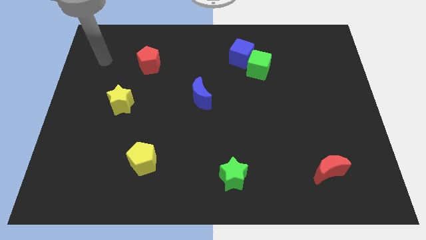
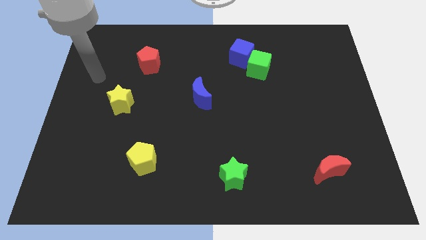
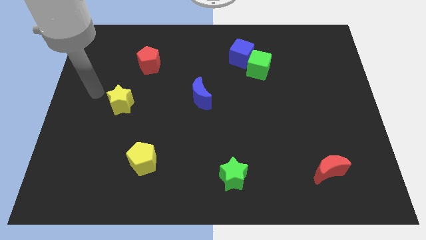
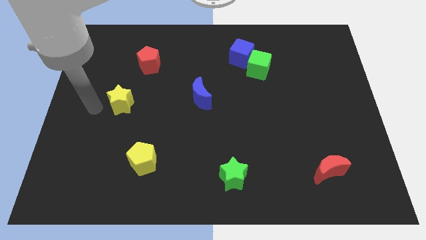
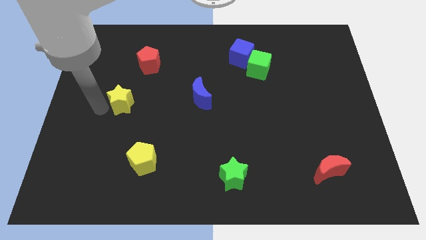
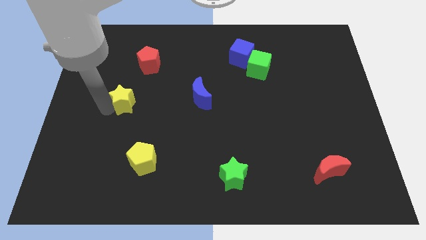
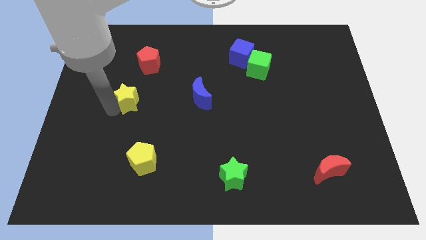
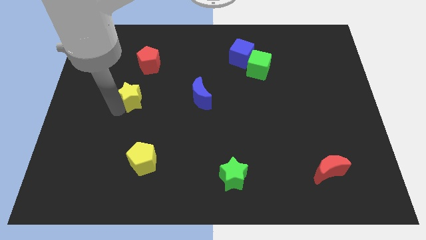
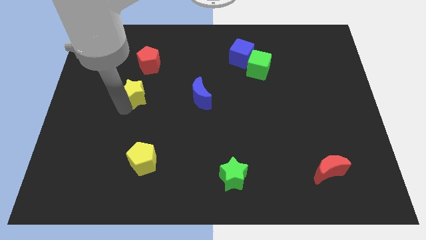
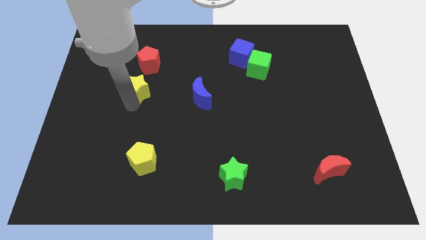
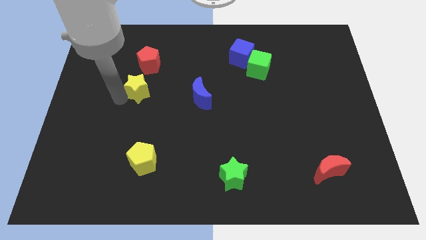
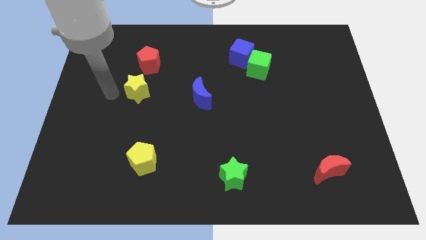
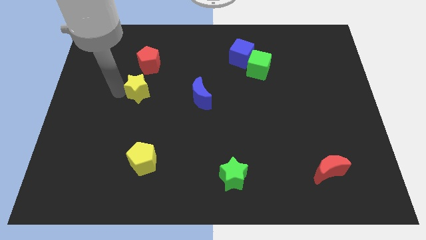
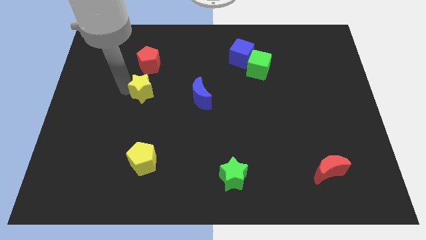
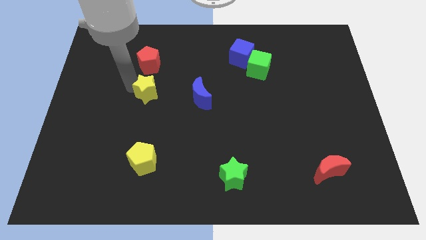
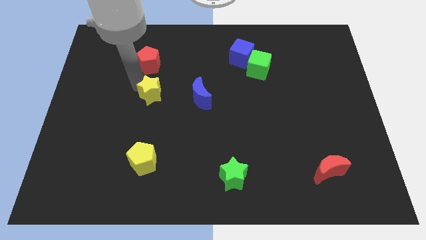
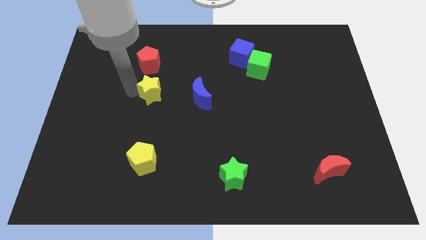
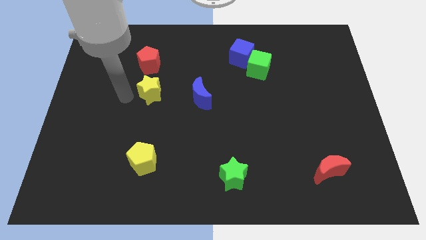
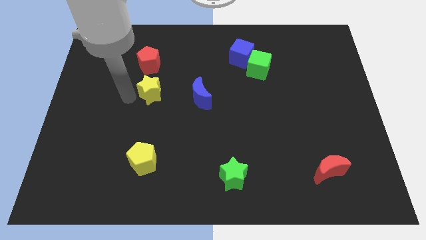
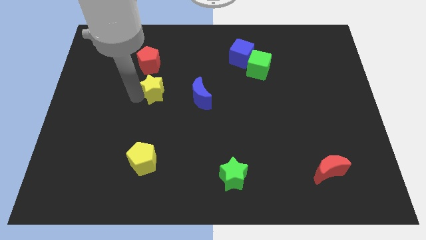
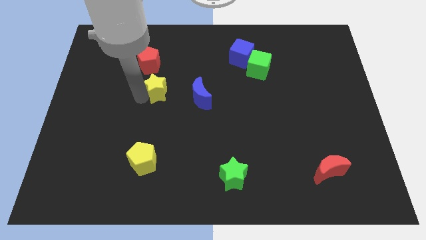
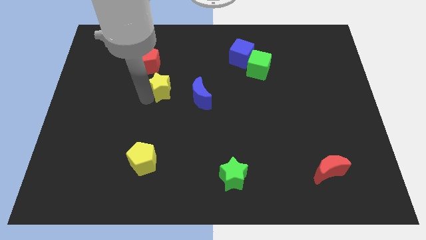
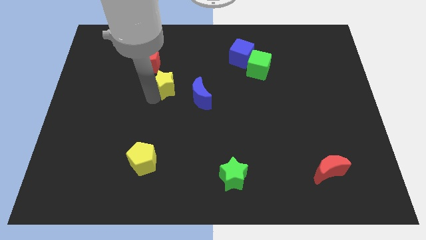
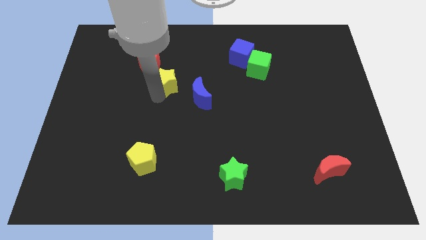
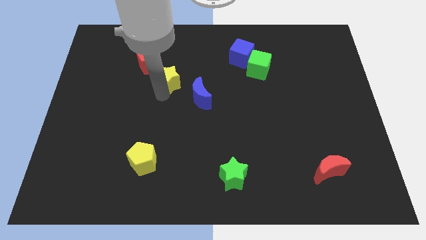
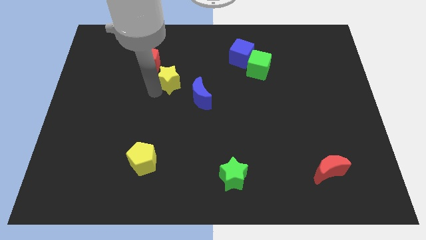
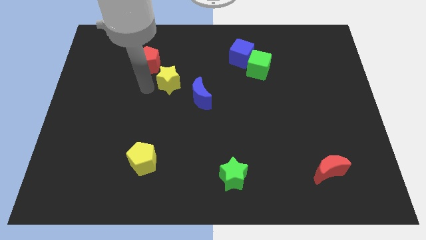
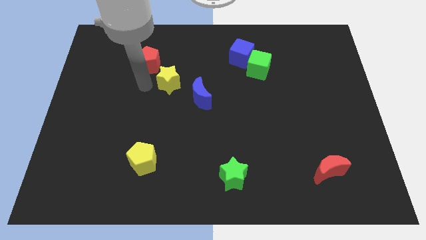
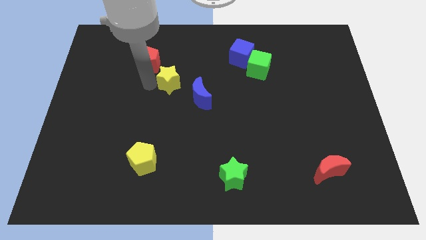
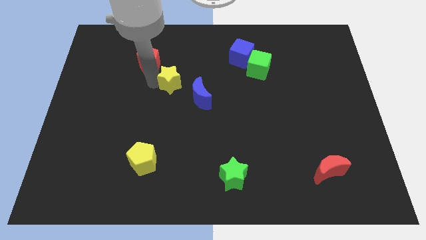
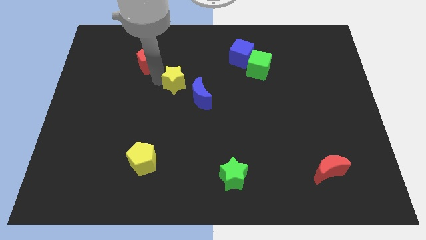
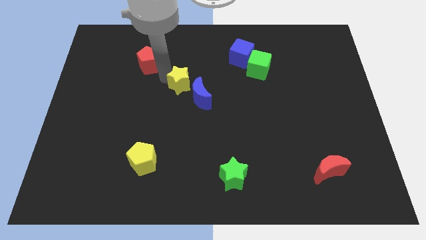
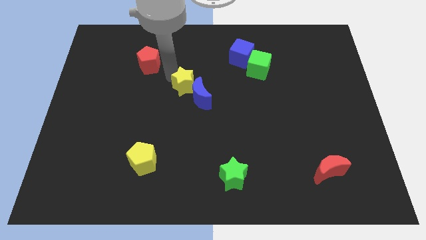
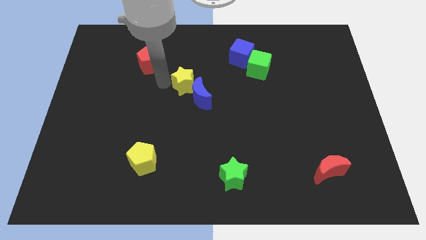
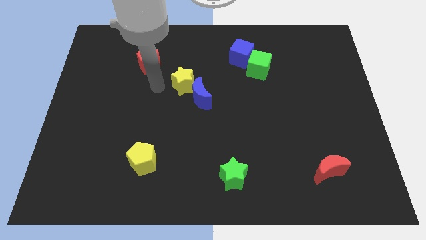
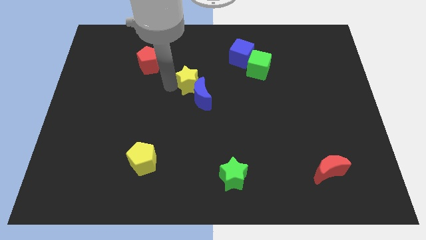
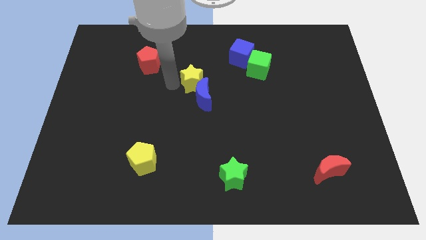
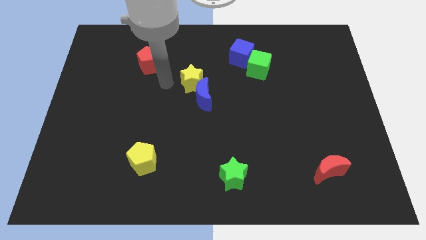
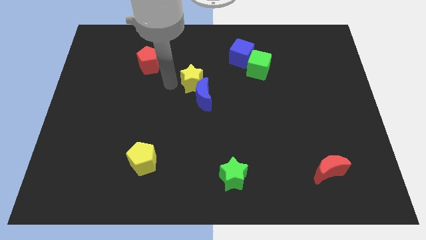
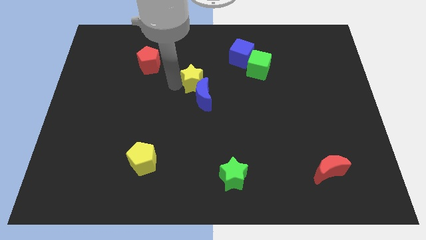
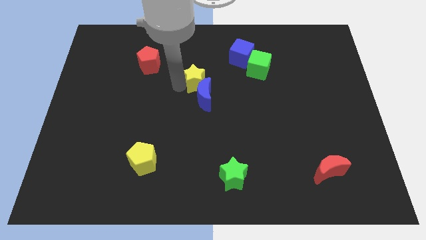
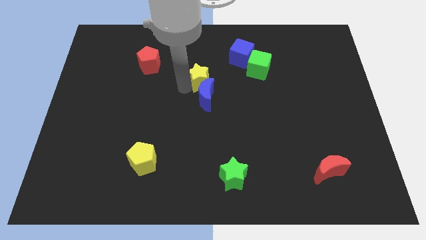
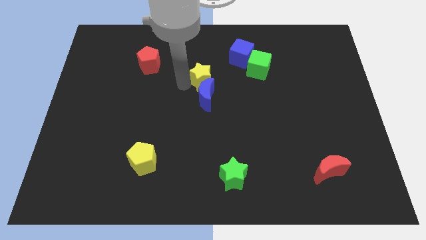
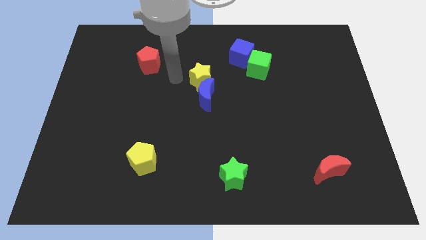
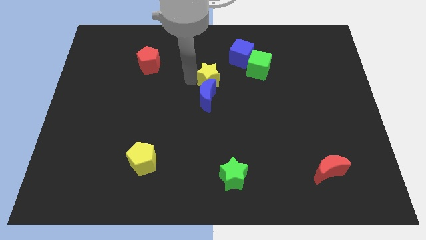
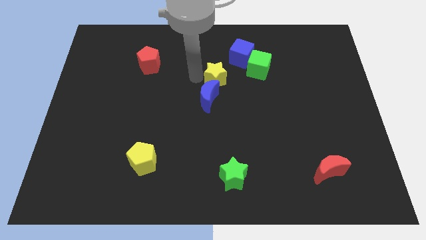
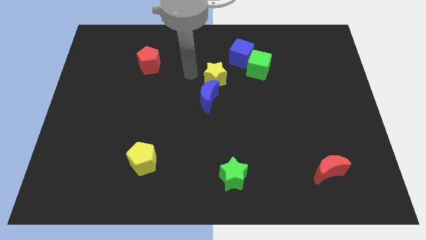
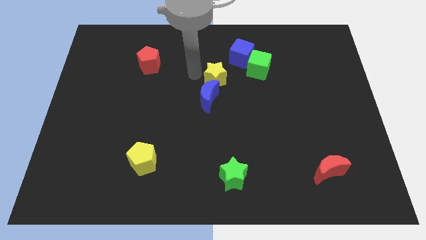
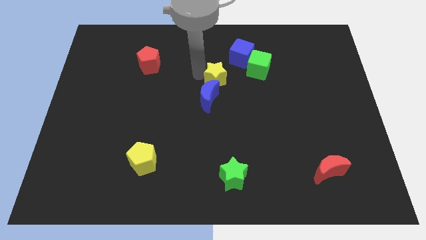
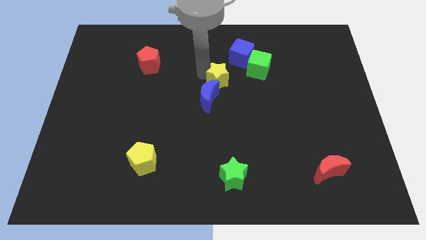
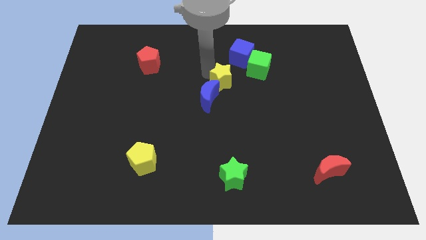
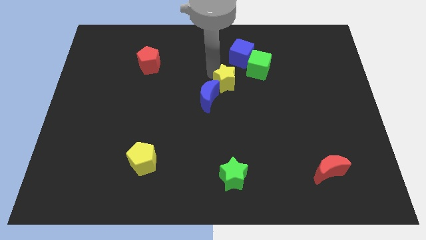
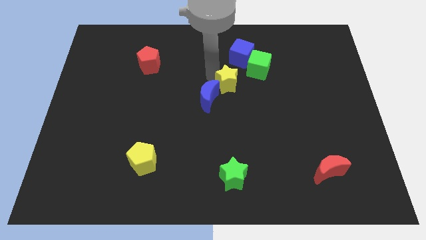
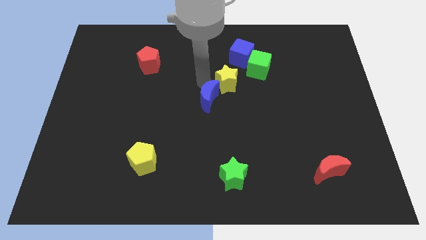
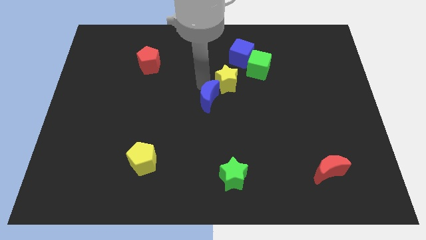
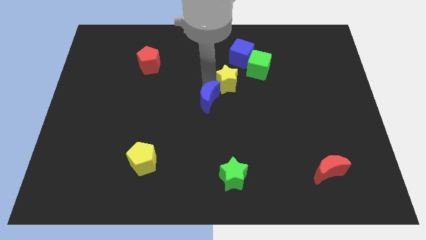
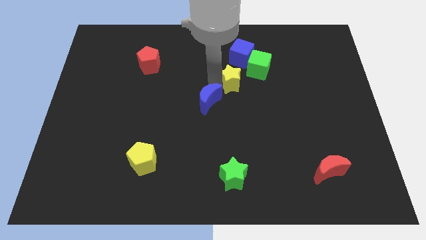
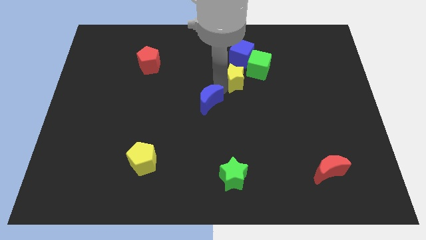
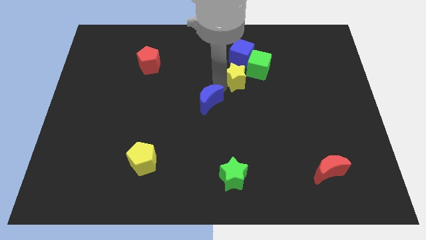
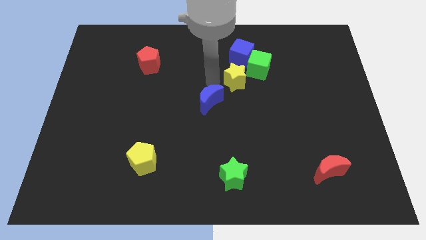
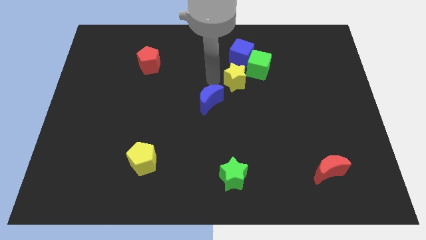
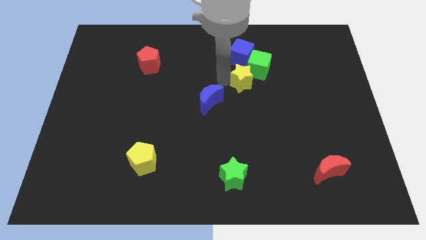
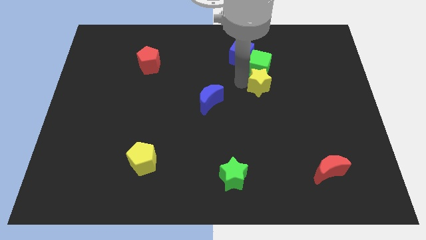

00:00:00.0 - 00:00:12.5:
put the yellow star to the bottom right side of the green cube

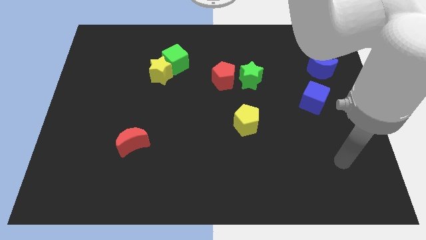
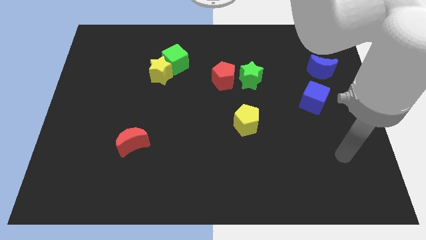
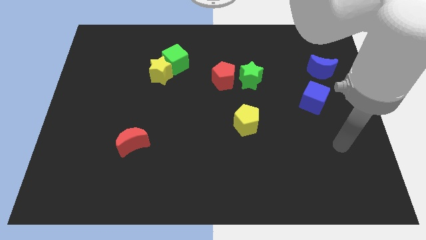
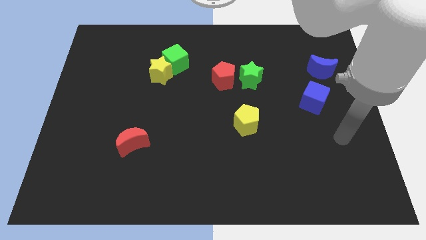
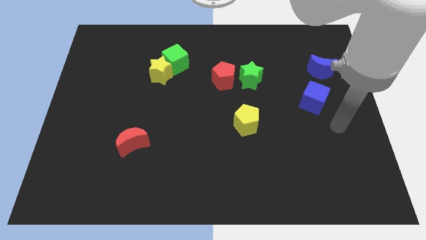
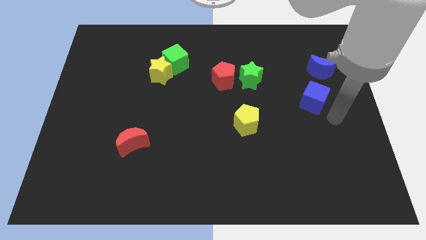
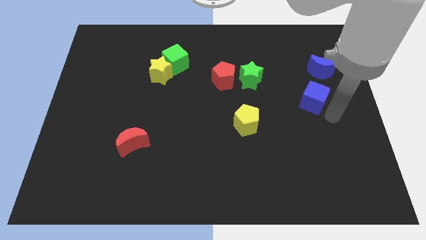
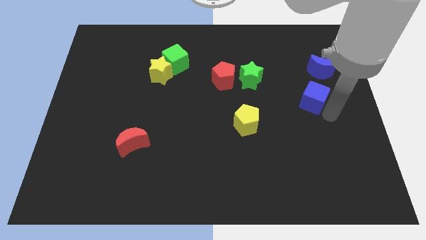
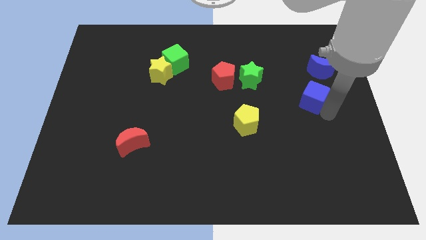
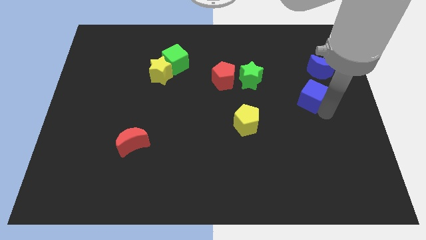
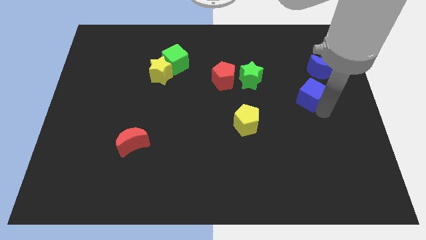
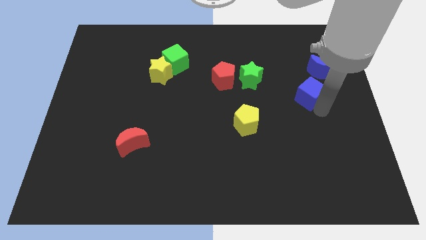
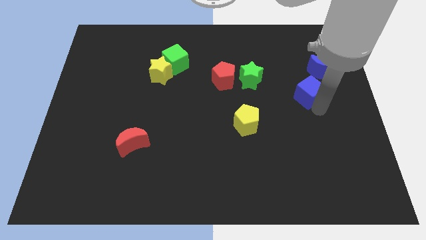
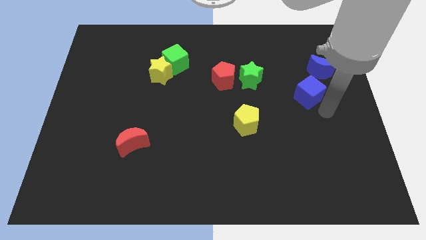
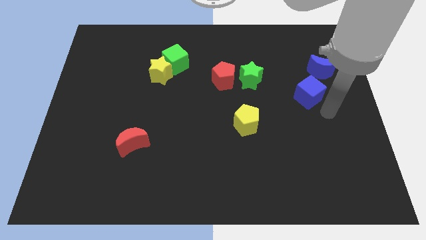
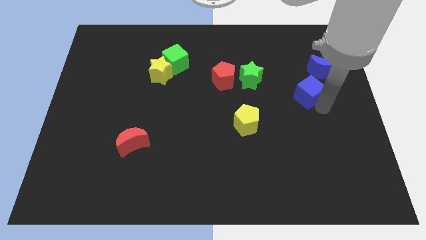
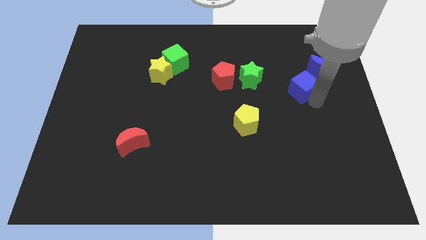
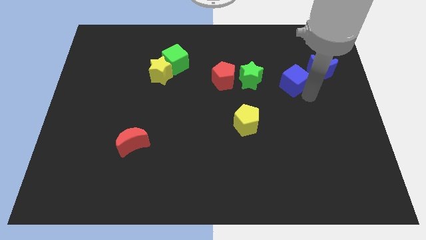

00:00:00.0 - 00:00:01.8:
move the blue cube to the left of the blue moon
